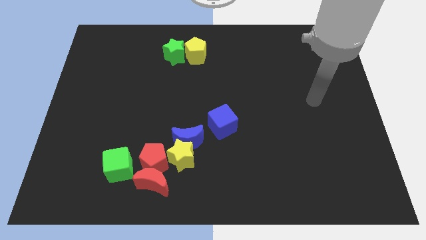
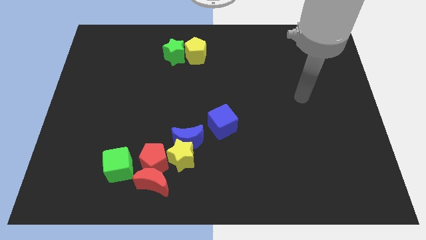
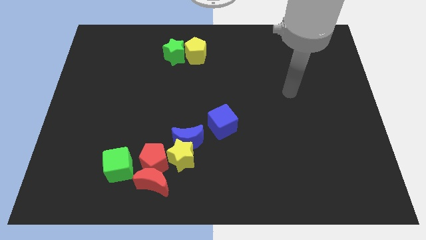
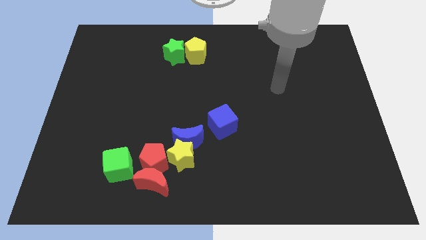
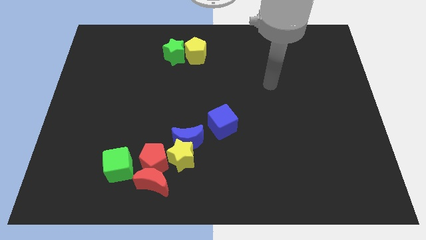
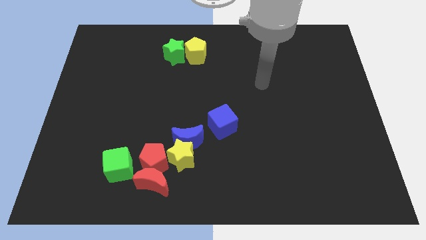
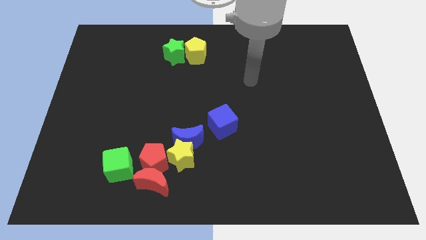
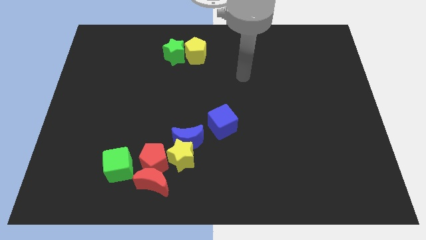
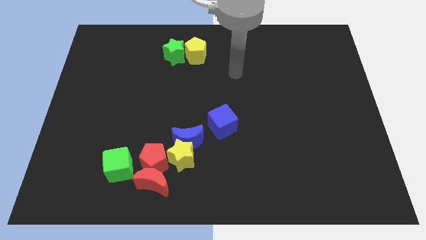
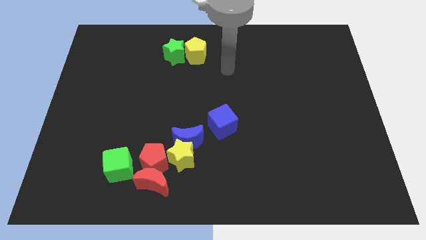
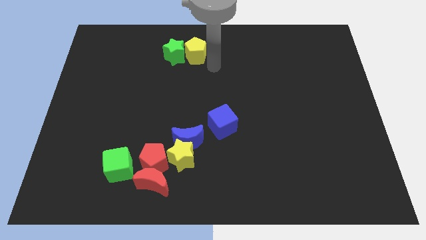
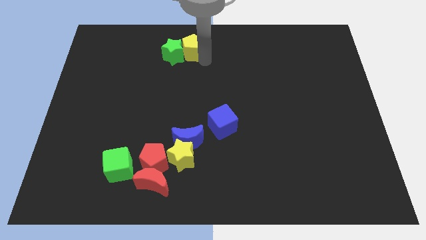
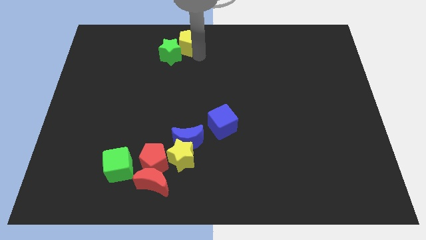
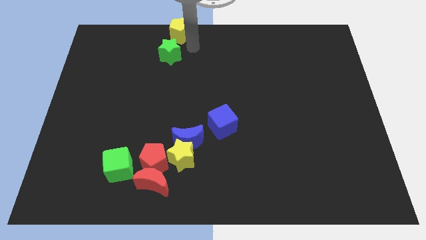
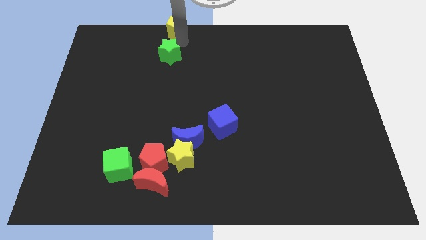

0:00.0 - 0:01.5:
move the green star away from the yellow pentagon

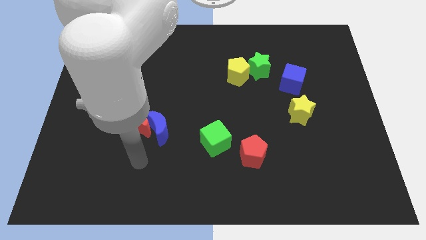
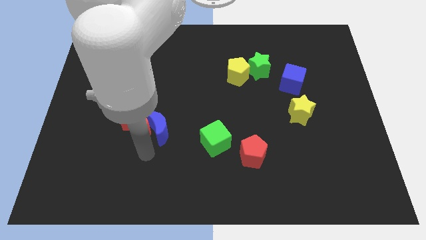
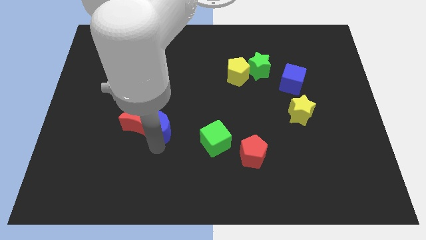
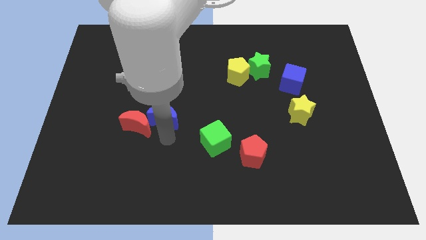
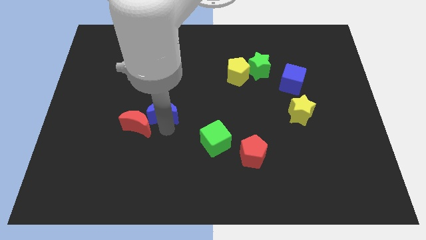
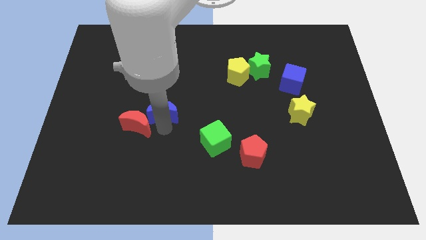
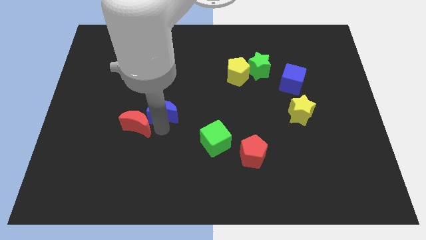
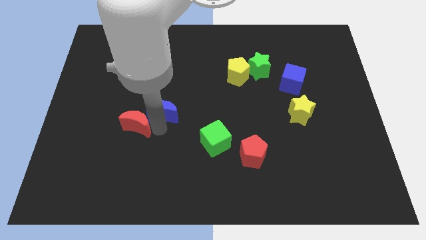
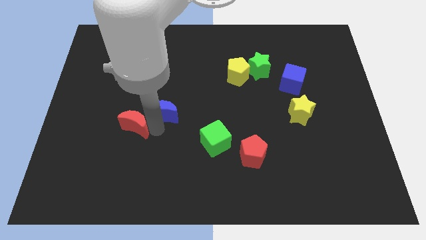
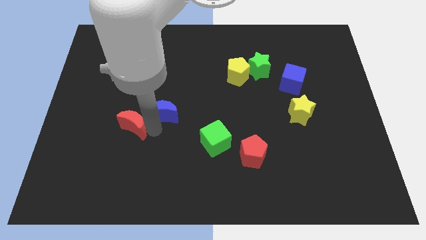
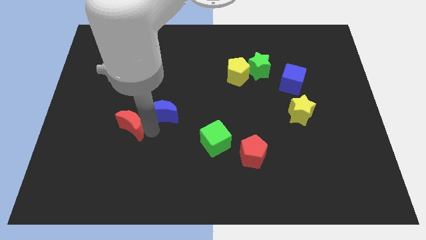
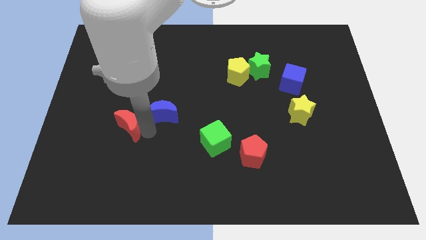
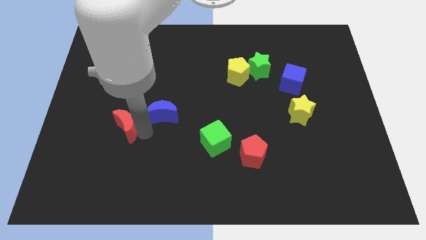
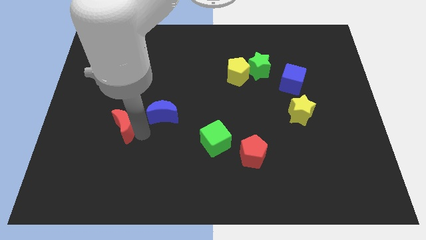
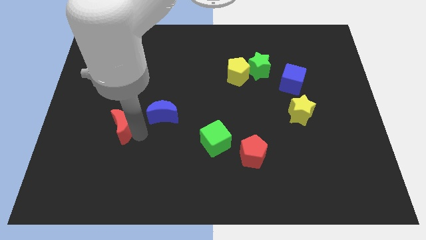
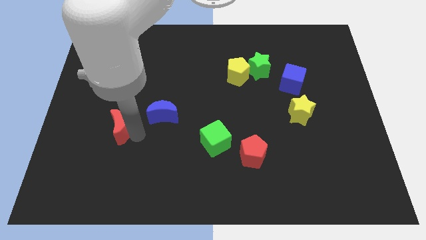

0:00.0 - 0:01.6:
pull the red moon apart from the blue moon

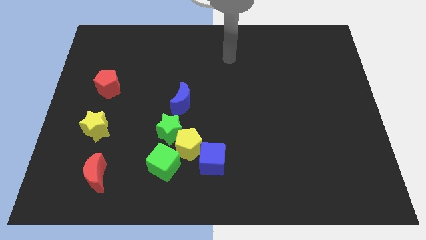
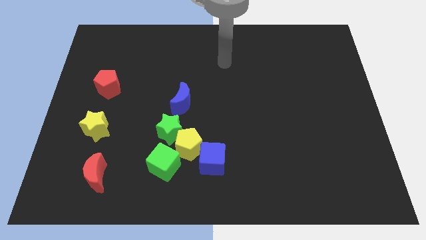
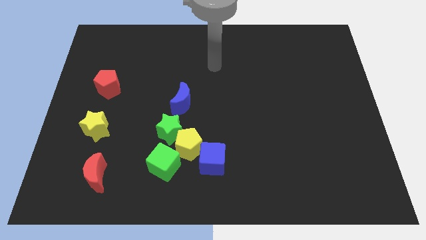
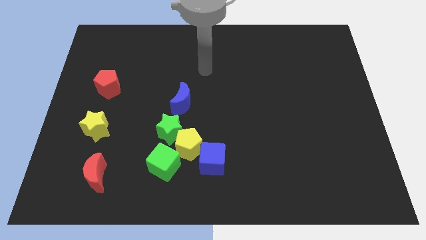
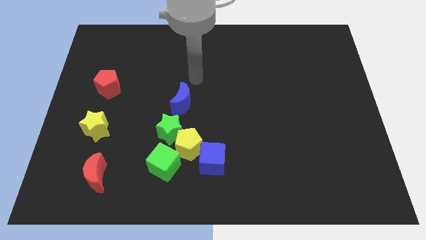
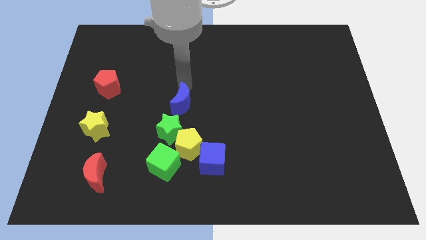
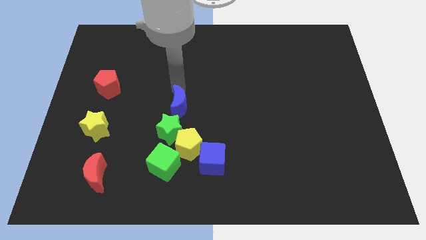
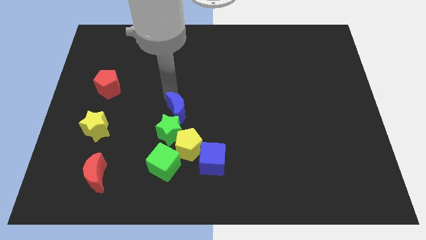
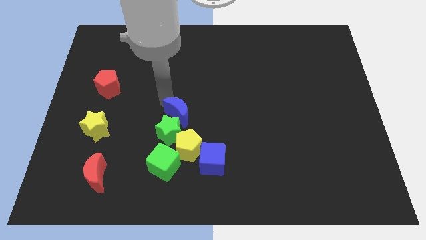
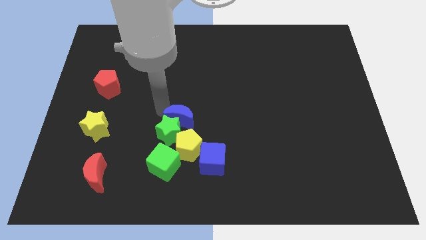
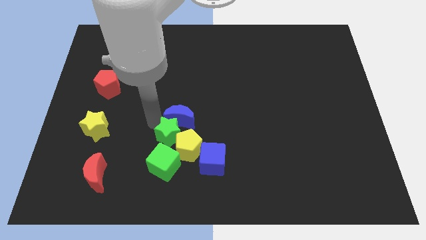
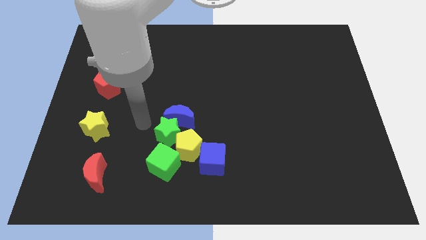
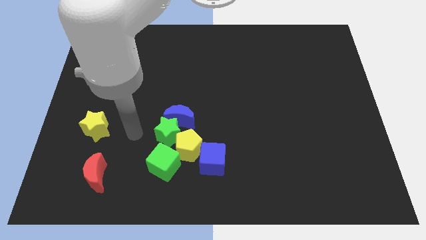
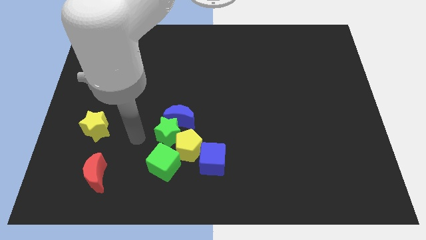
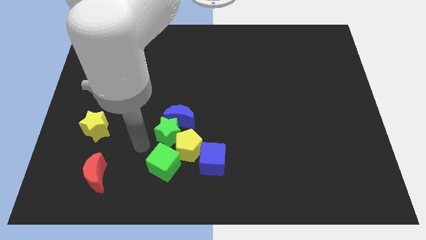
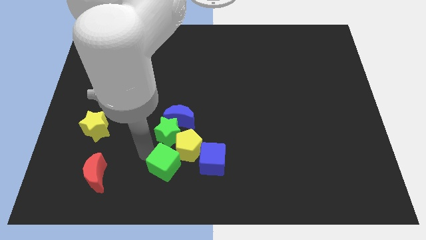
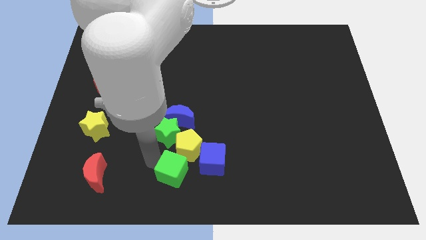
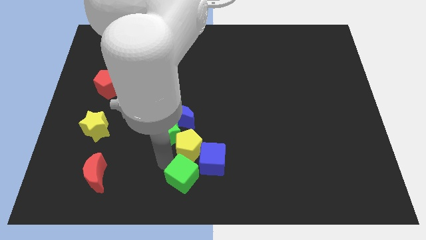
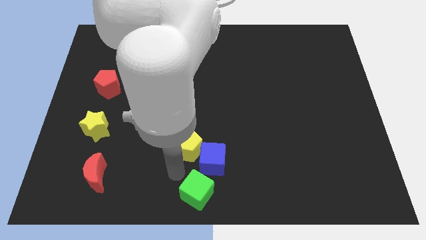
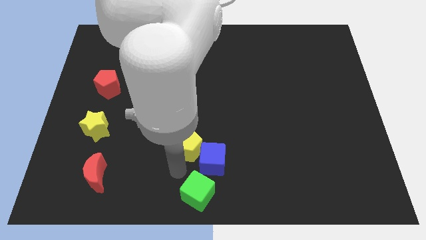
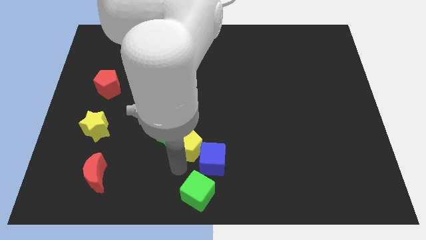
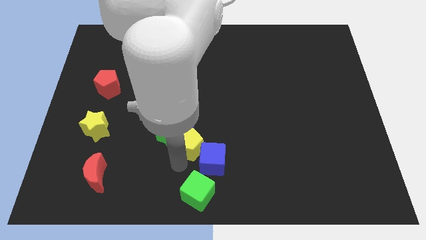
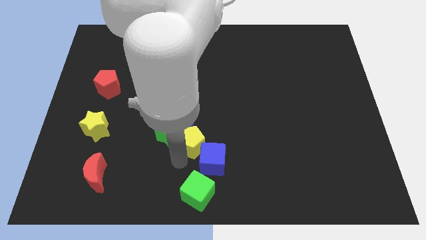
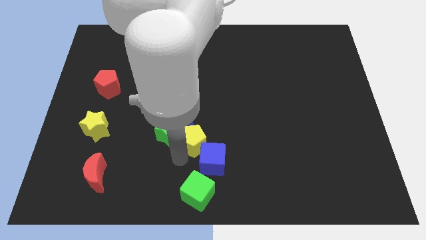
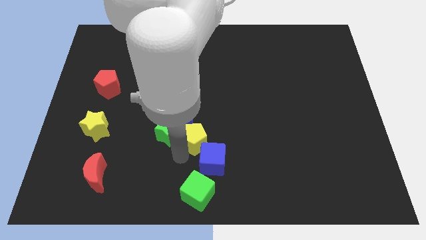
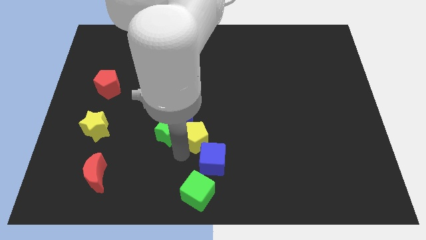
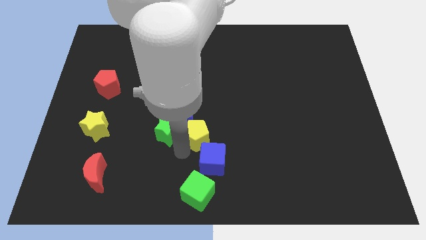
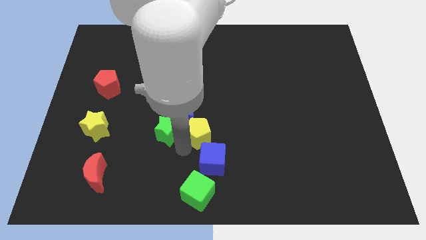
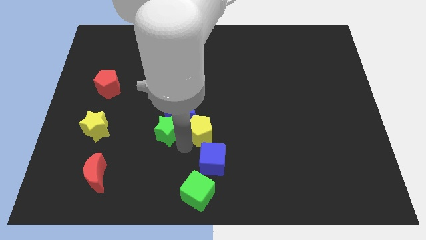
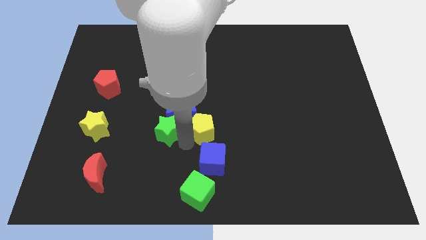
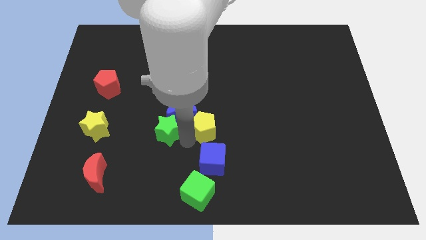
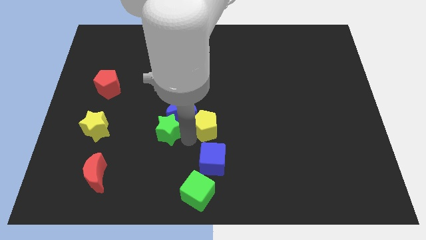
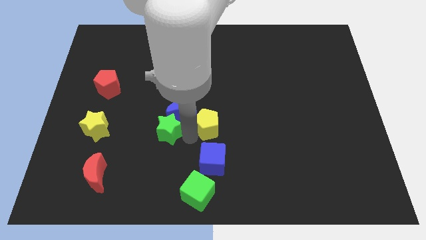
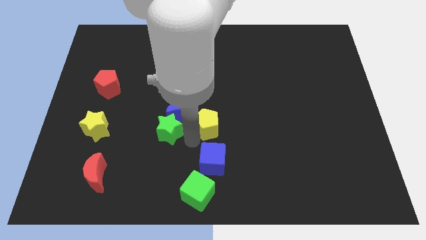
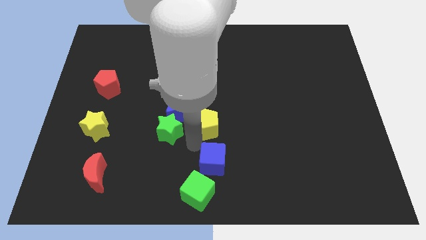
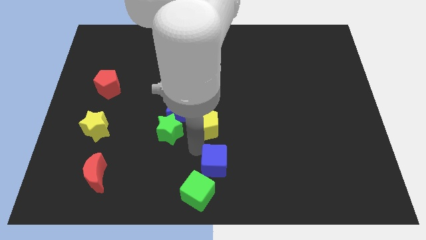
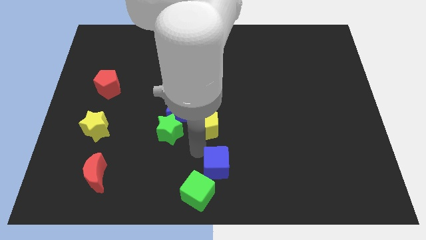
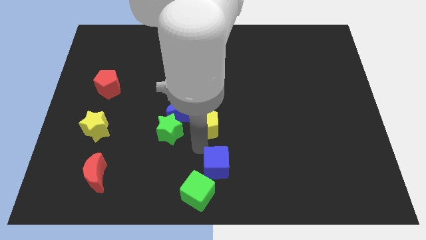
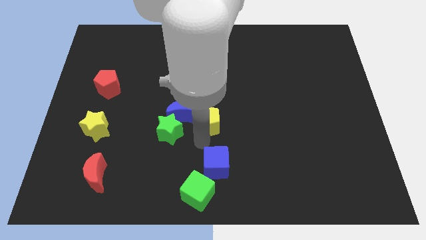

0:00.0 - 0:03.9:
move the yellow pentagon away from the green star, blue cube, and green cube

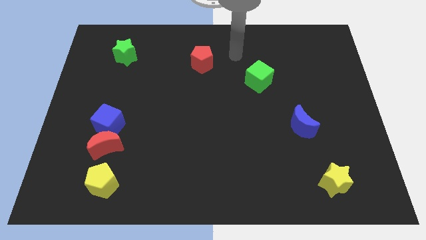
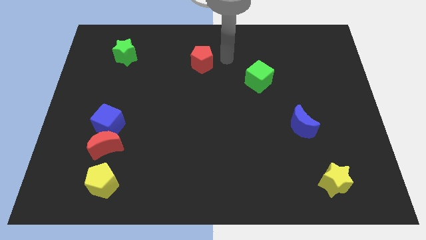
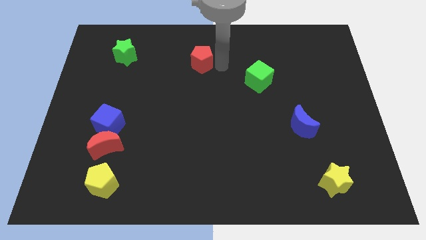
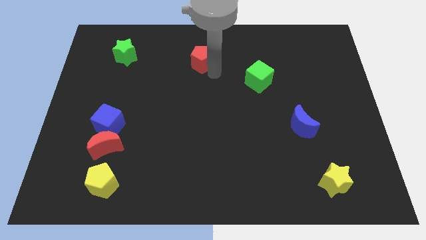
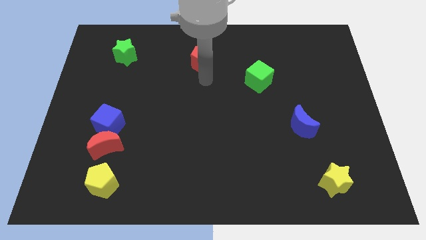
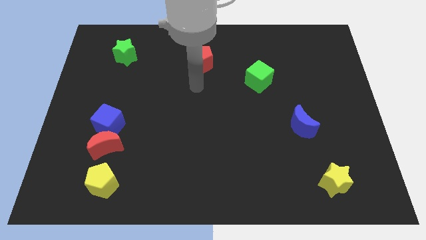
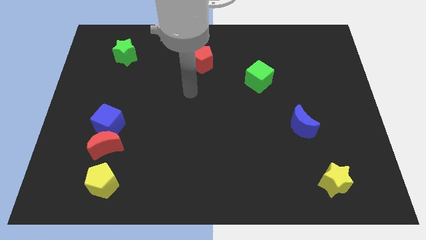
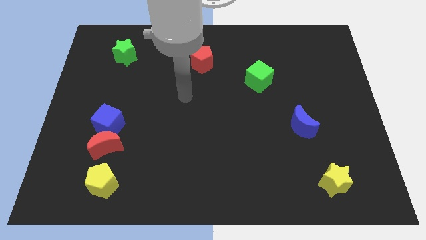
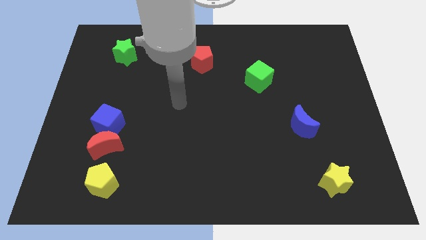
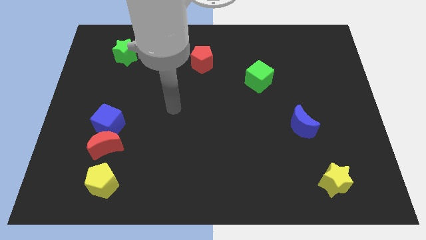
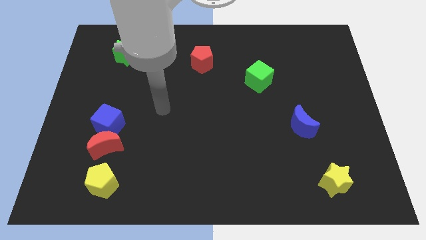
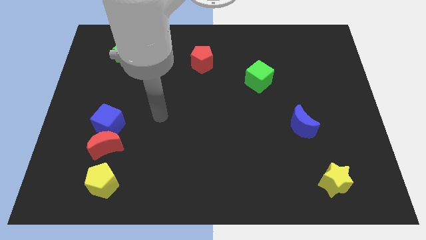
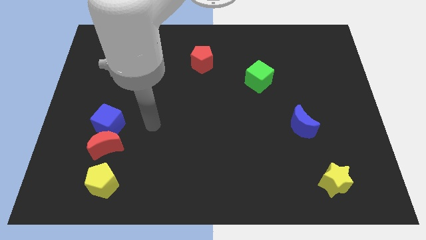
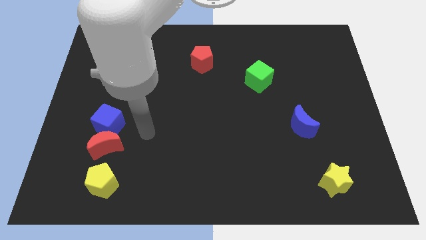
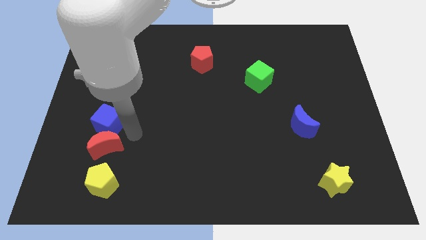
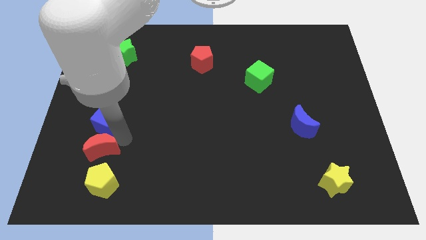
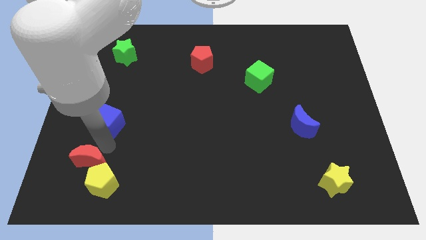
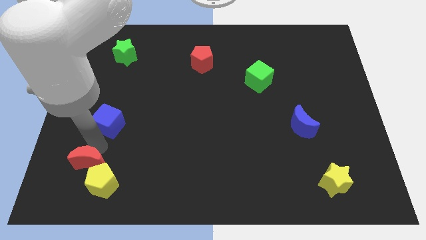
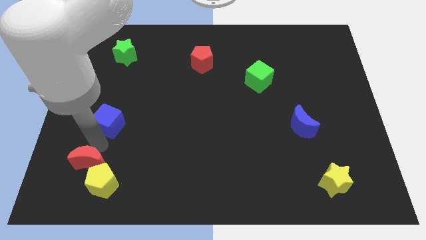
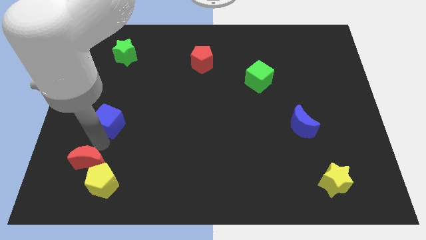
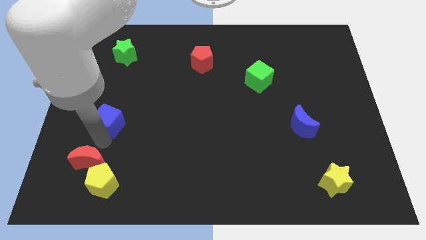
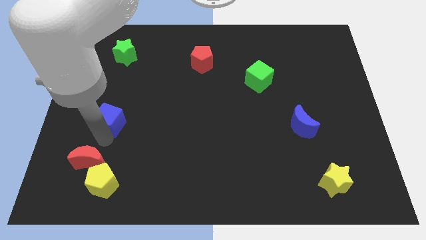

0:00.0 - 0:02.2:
separate the blue cube from the red moon

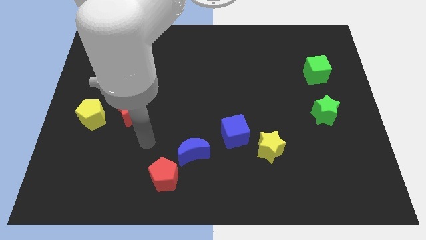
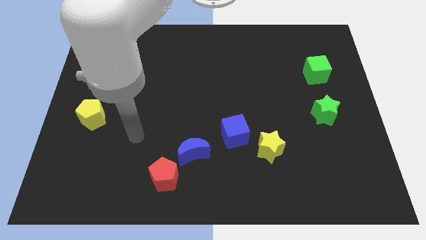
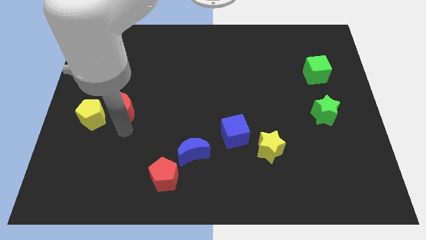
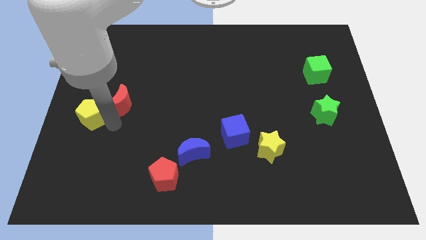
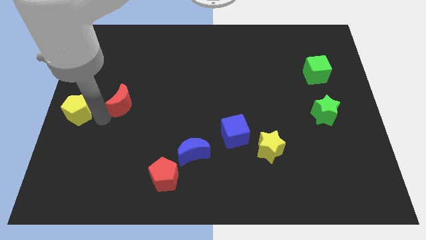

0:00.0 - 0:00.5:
pull the red moon apart from the yellow pentagon
